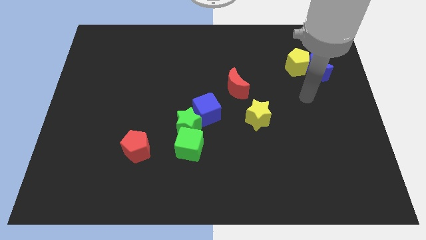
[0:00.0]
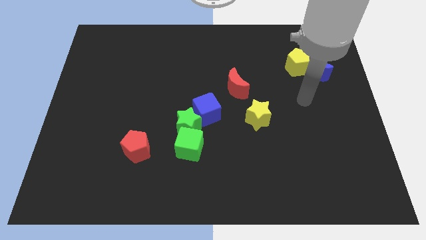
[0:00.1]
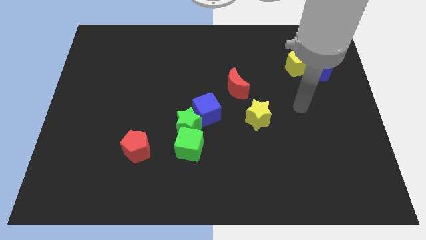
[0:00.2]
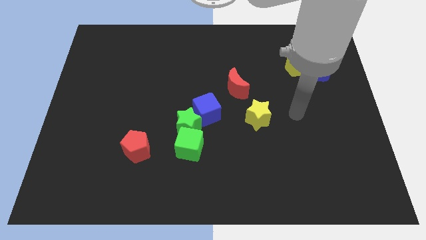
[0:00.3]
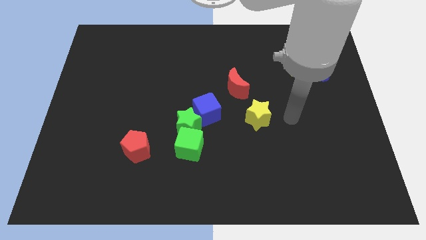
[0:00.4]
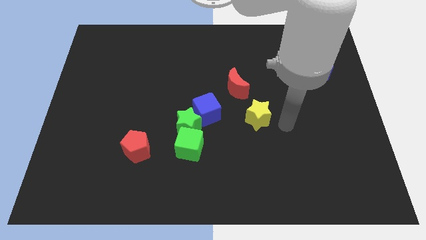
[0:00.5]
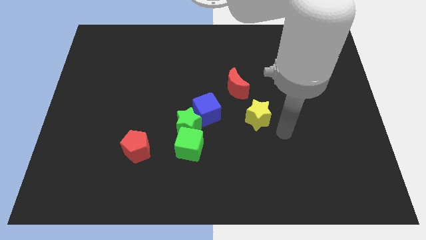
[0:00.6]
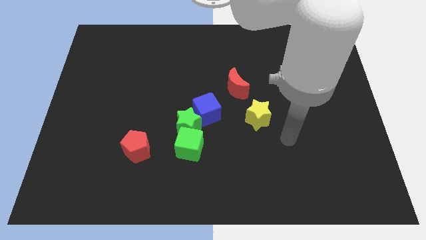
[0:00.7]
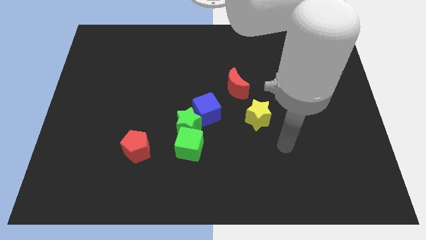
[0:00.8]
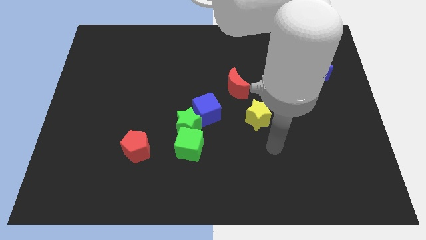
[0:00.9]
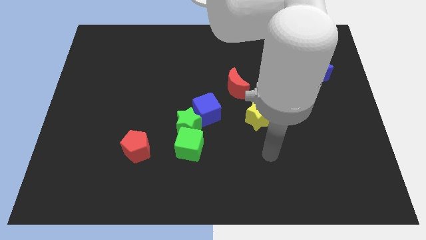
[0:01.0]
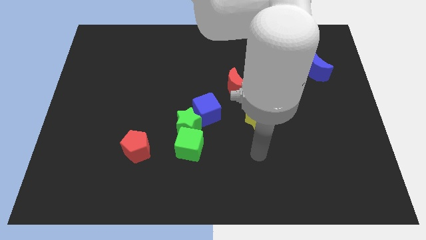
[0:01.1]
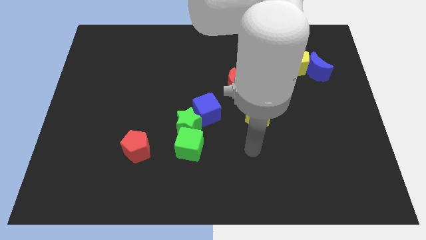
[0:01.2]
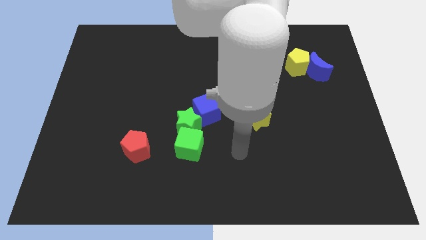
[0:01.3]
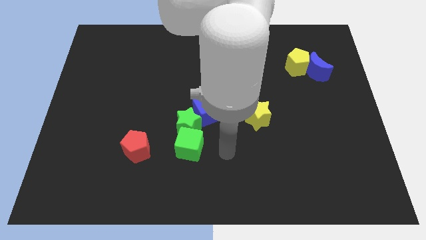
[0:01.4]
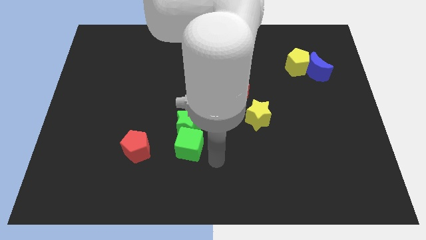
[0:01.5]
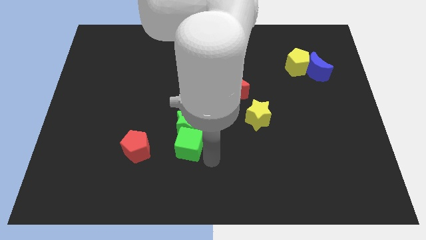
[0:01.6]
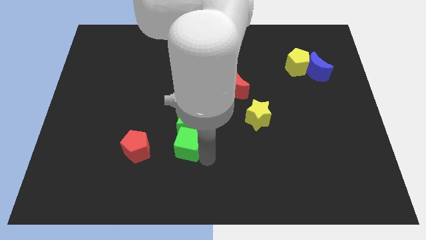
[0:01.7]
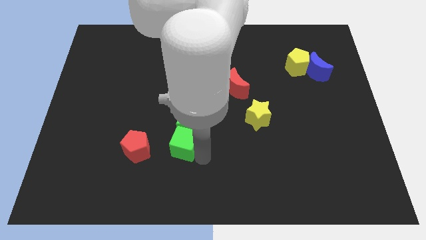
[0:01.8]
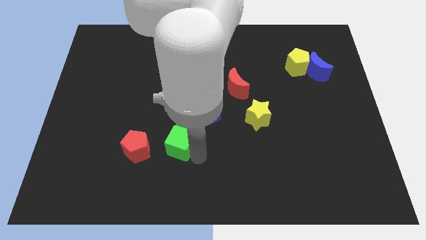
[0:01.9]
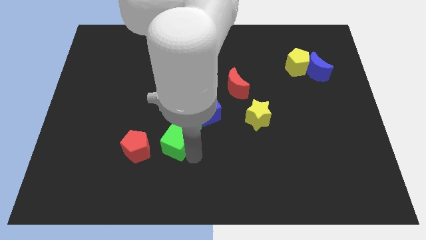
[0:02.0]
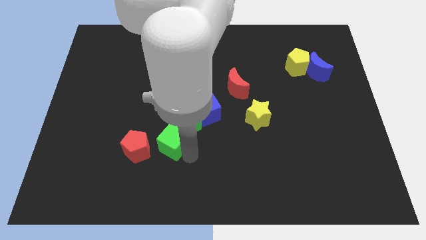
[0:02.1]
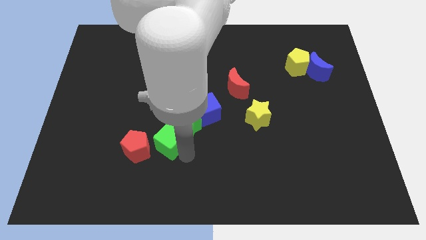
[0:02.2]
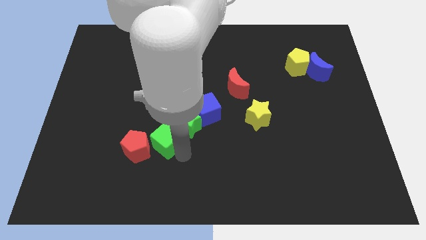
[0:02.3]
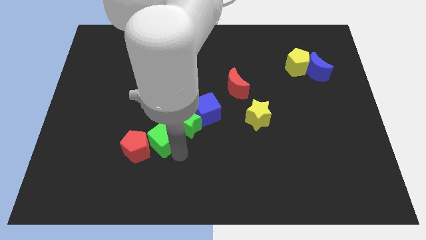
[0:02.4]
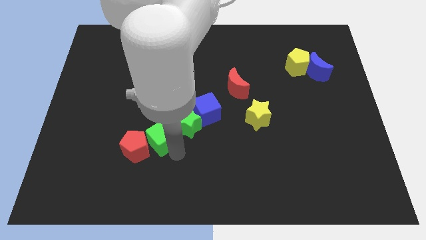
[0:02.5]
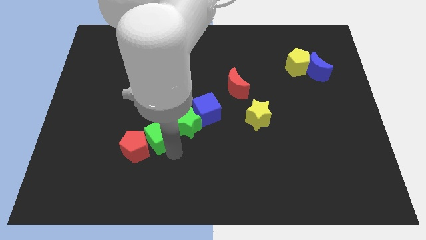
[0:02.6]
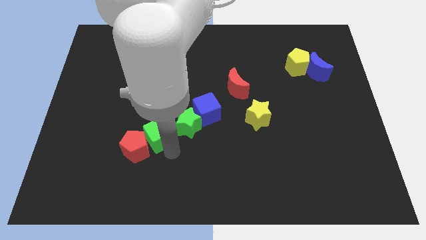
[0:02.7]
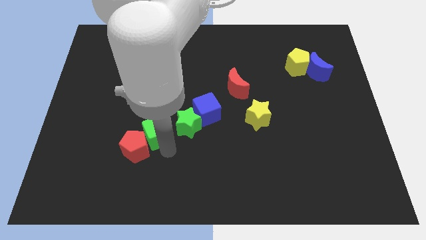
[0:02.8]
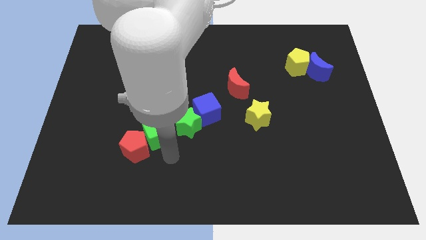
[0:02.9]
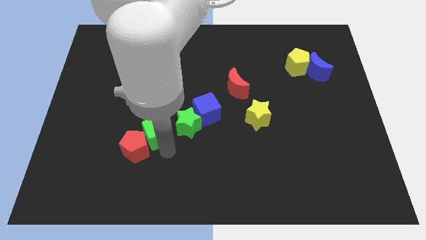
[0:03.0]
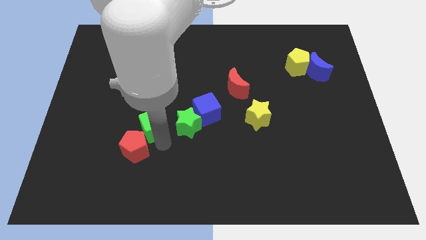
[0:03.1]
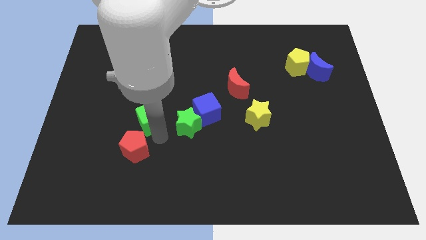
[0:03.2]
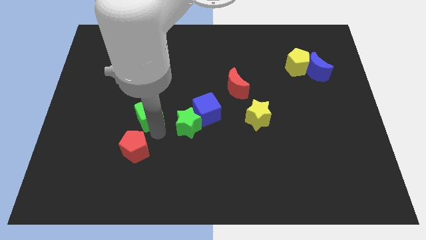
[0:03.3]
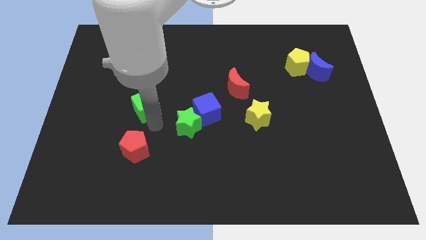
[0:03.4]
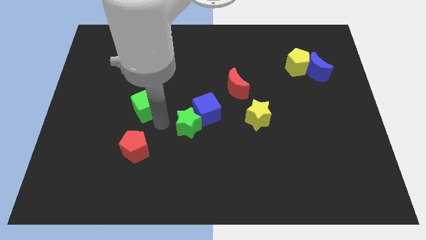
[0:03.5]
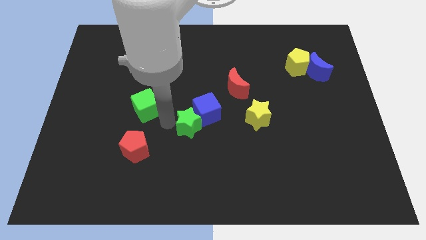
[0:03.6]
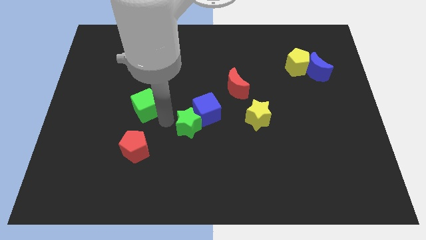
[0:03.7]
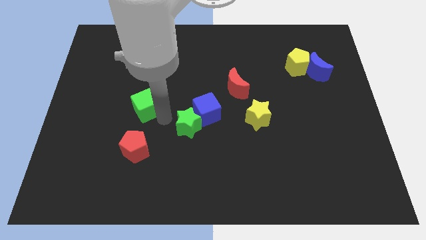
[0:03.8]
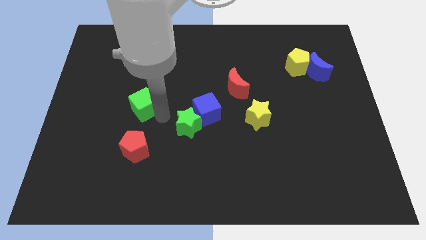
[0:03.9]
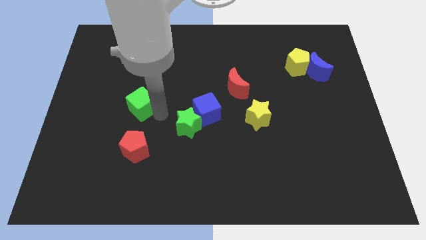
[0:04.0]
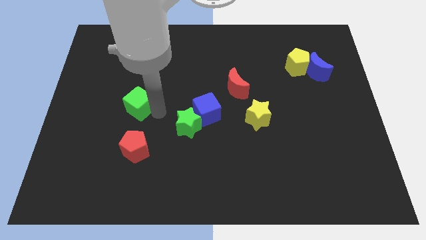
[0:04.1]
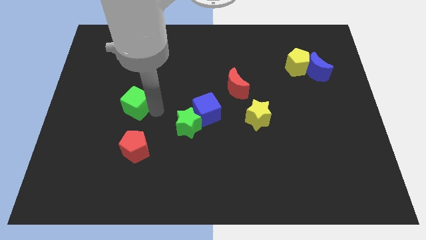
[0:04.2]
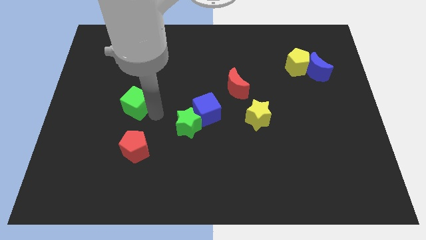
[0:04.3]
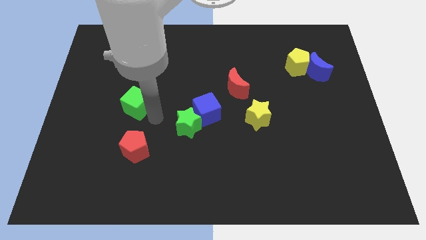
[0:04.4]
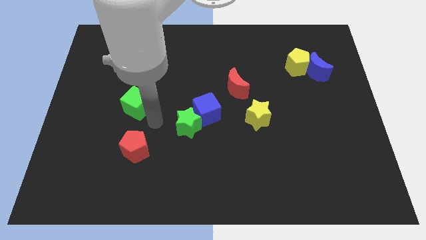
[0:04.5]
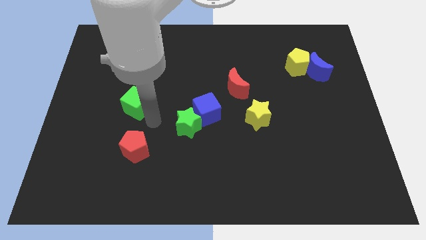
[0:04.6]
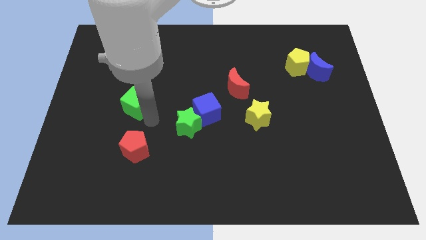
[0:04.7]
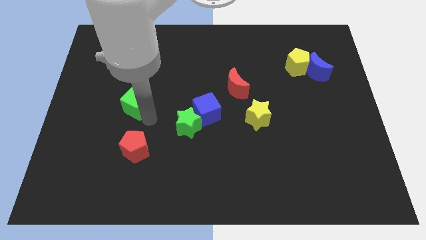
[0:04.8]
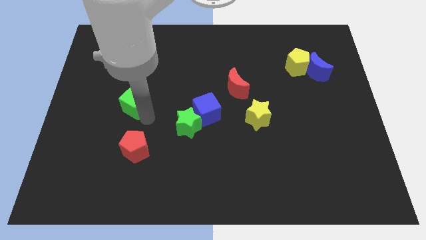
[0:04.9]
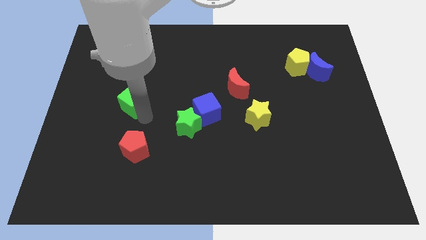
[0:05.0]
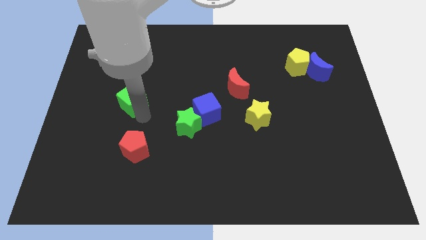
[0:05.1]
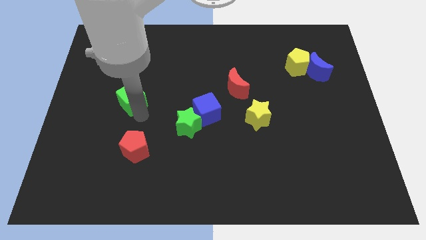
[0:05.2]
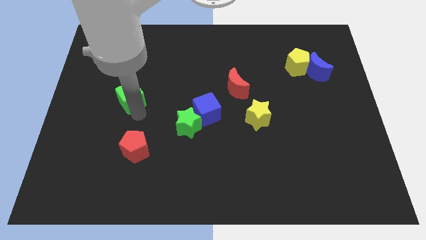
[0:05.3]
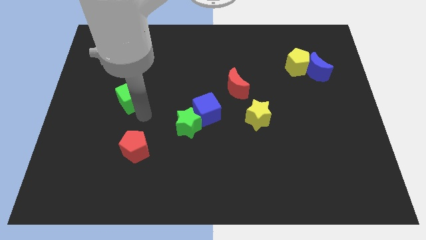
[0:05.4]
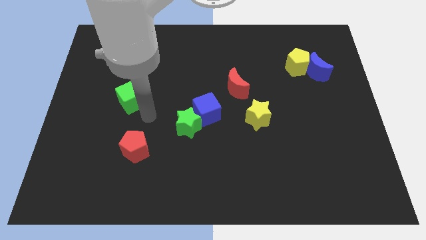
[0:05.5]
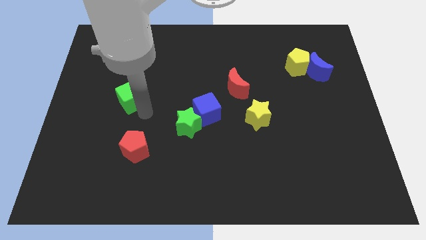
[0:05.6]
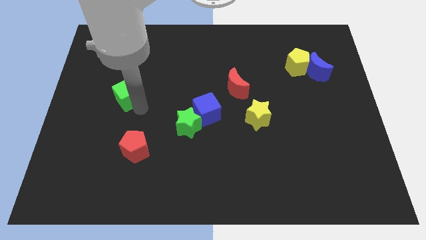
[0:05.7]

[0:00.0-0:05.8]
push the green cube up and to the left diagonally

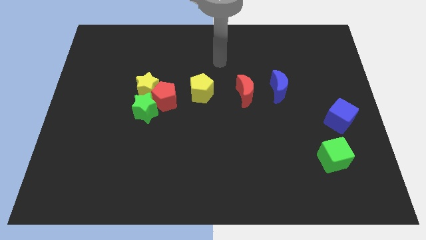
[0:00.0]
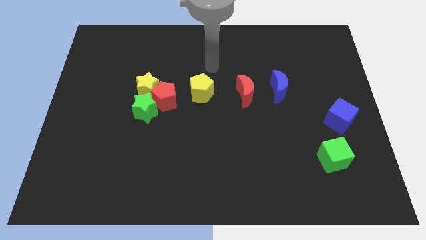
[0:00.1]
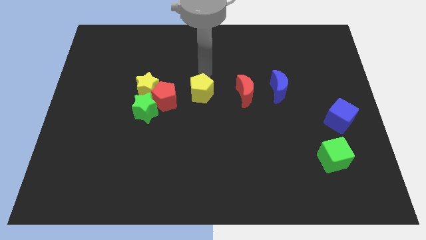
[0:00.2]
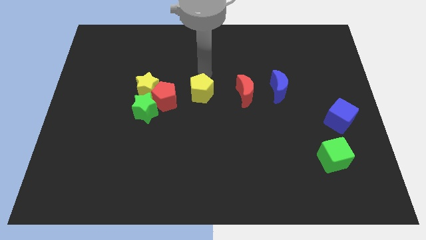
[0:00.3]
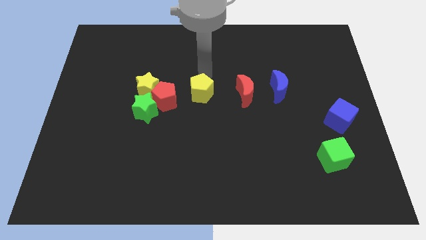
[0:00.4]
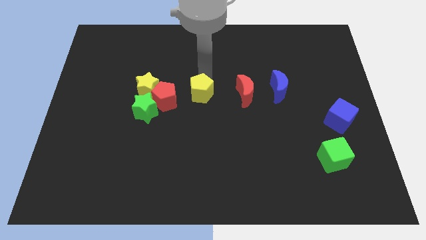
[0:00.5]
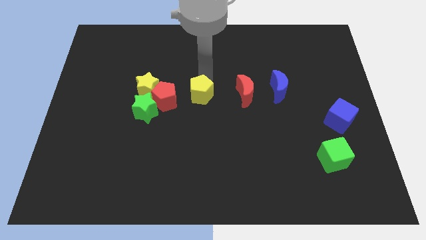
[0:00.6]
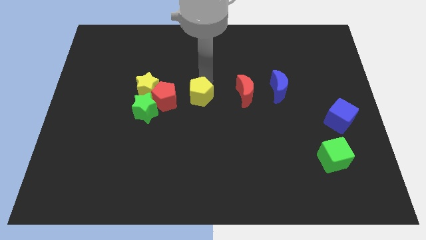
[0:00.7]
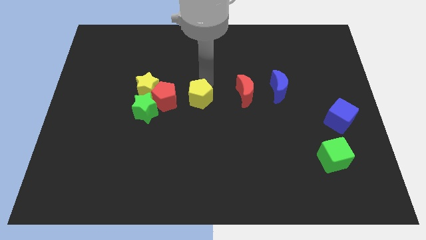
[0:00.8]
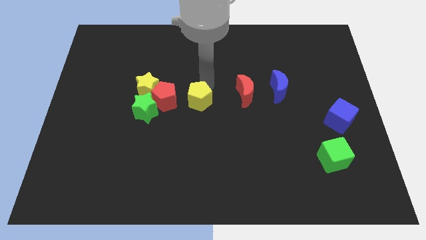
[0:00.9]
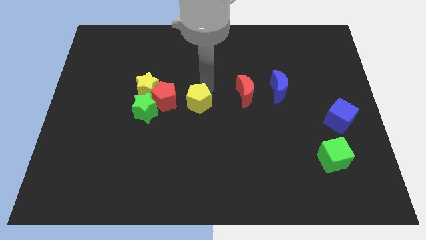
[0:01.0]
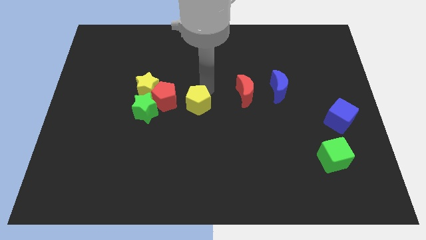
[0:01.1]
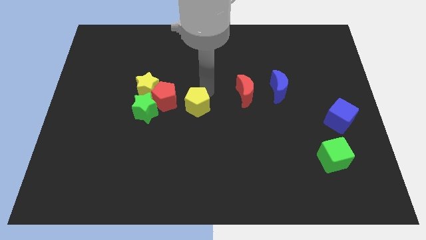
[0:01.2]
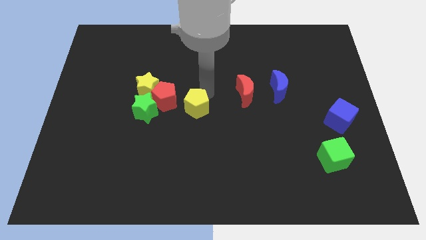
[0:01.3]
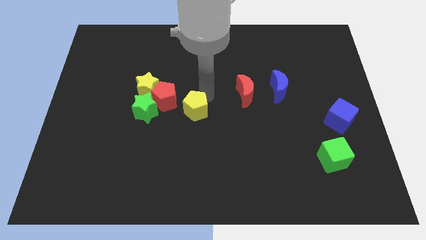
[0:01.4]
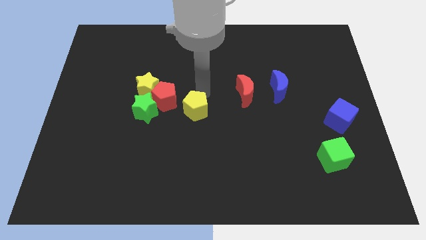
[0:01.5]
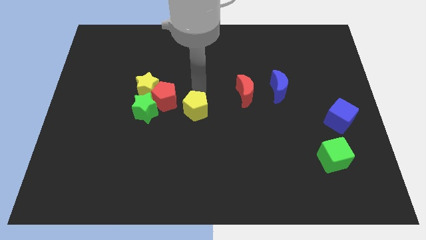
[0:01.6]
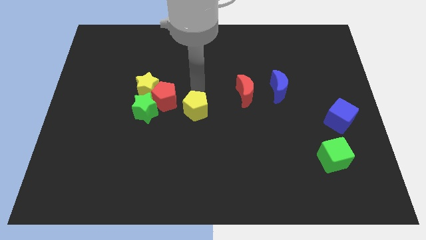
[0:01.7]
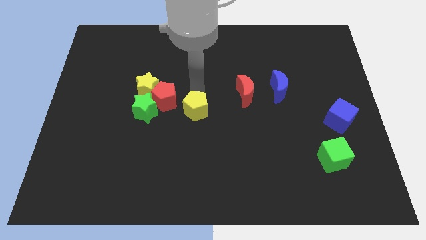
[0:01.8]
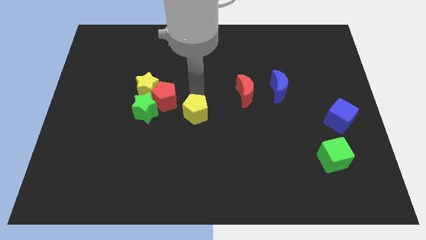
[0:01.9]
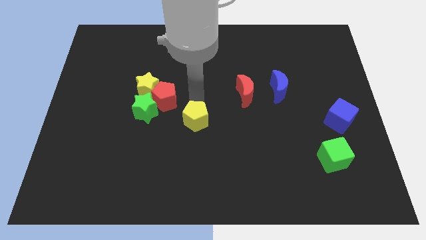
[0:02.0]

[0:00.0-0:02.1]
push the yellow pentagon down a little bit

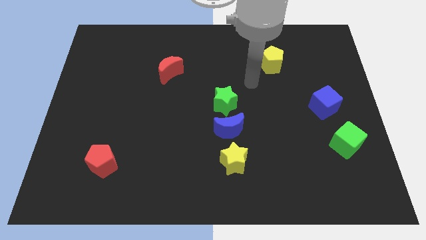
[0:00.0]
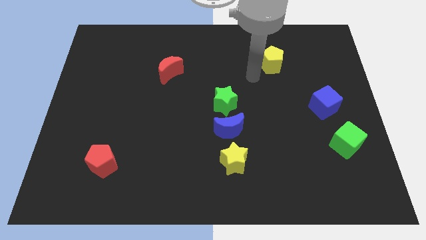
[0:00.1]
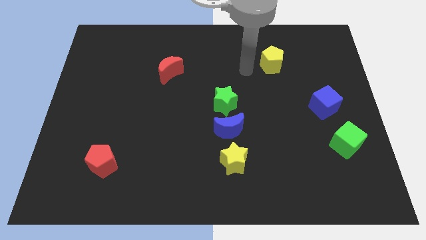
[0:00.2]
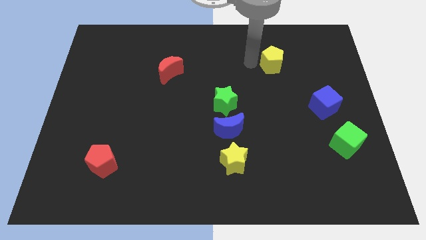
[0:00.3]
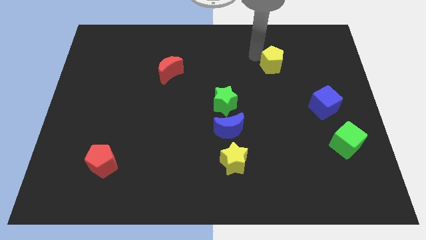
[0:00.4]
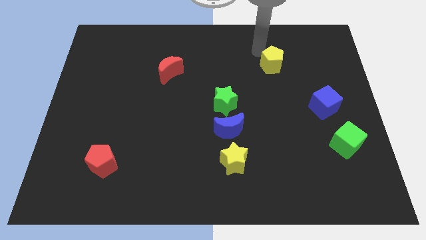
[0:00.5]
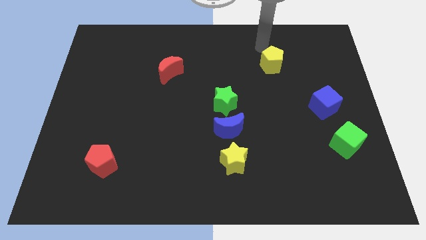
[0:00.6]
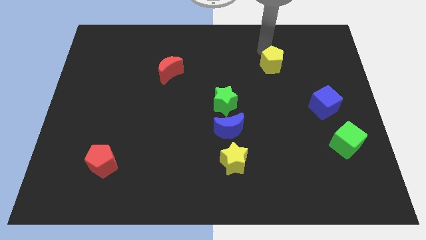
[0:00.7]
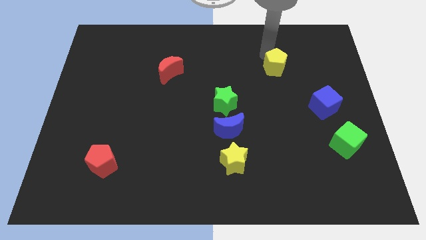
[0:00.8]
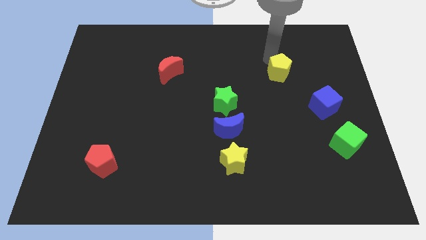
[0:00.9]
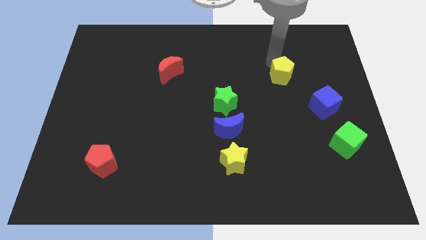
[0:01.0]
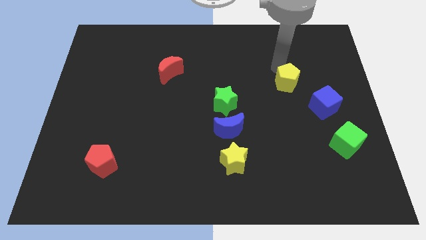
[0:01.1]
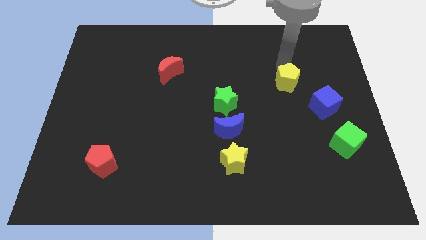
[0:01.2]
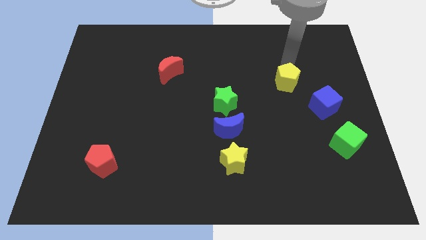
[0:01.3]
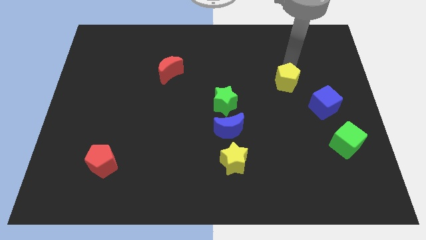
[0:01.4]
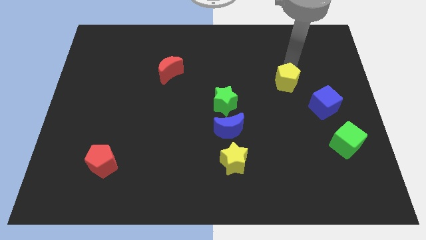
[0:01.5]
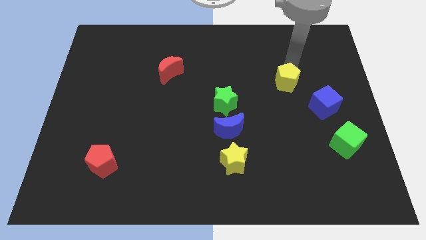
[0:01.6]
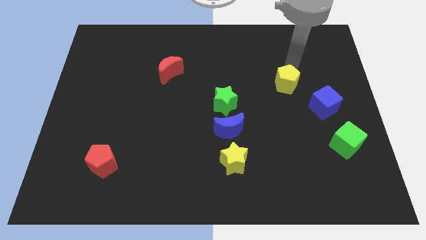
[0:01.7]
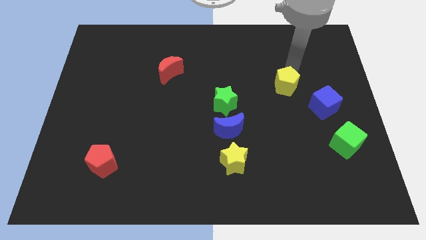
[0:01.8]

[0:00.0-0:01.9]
slide the yellow pentagon somewhat down
